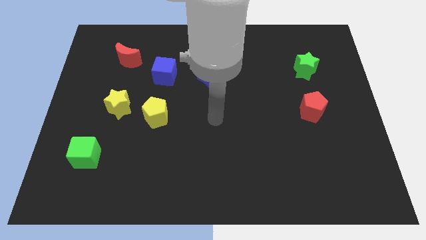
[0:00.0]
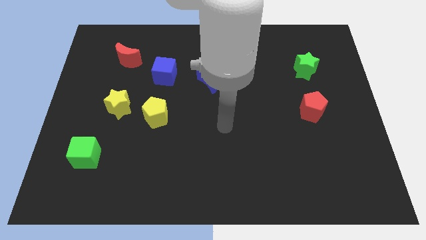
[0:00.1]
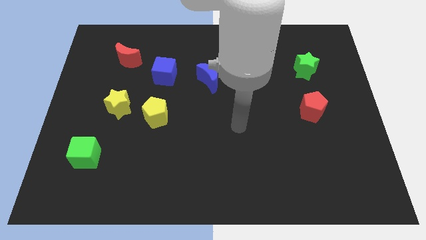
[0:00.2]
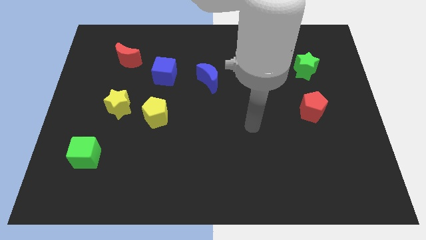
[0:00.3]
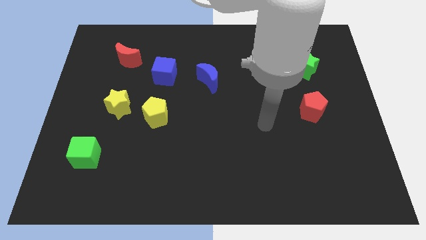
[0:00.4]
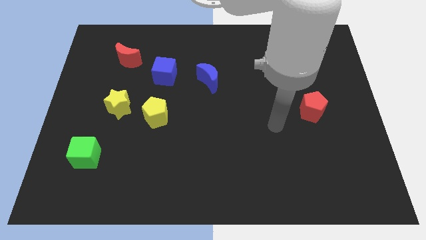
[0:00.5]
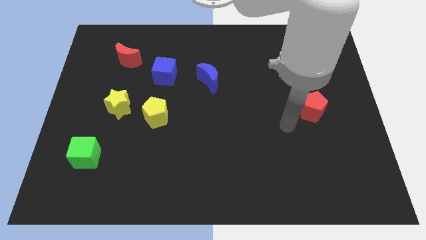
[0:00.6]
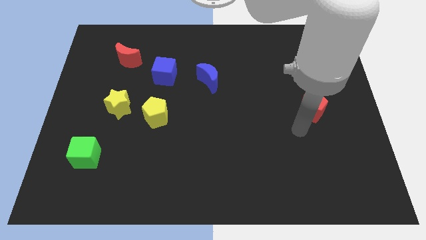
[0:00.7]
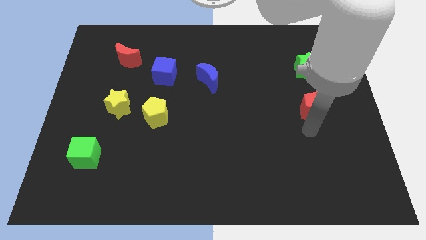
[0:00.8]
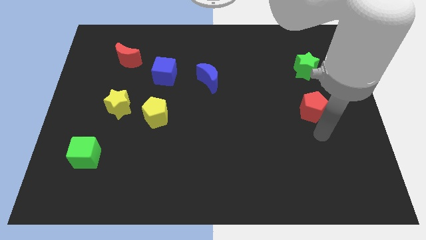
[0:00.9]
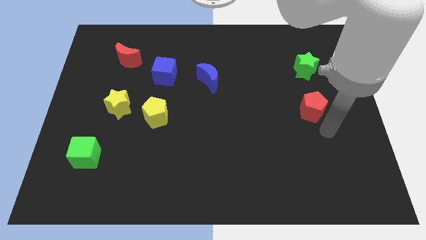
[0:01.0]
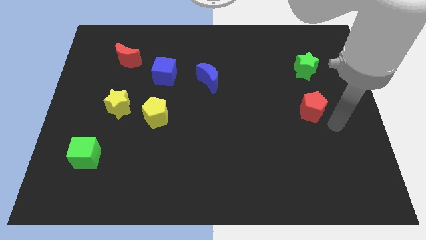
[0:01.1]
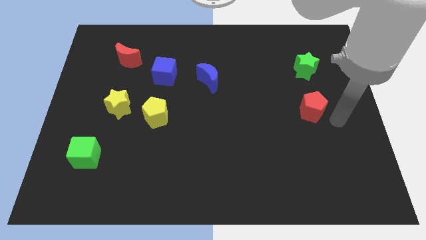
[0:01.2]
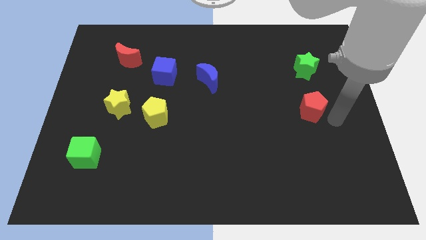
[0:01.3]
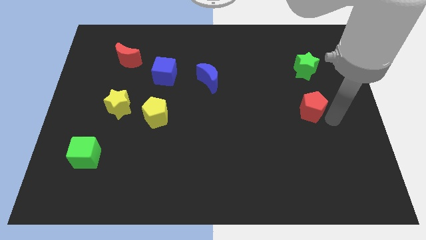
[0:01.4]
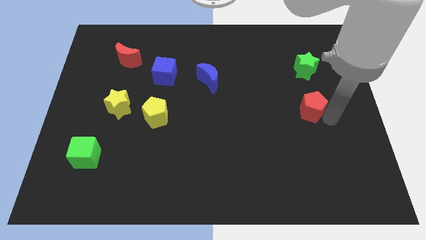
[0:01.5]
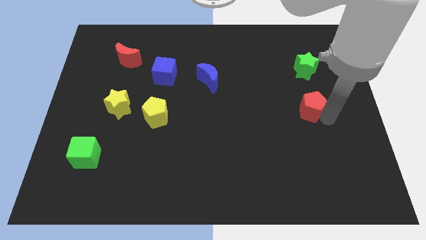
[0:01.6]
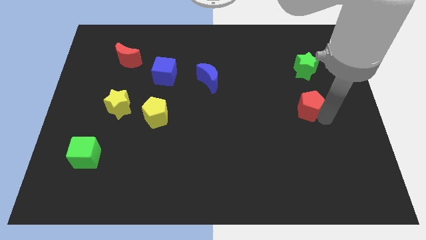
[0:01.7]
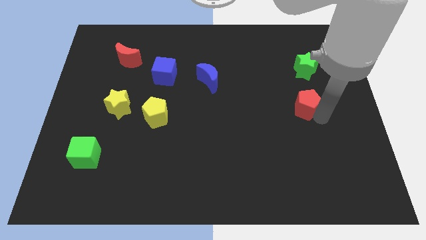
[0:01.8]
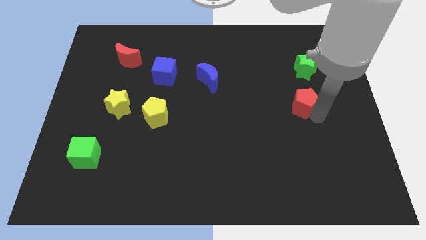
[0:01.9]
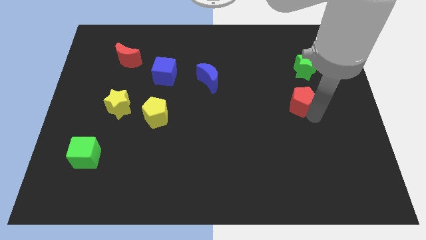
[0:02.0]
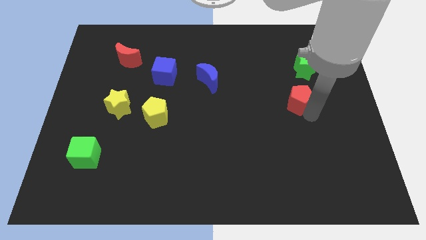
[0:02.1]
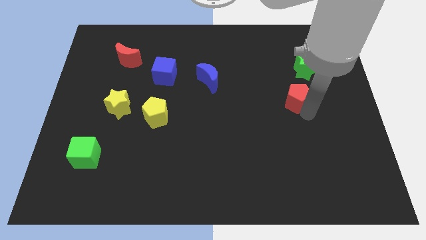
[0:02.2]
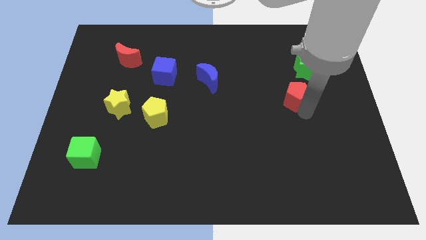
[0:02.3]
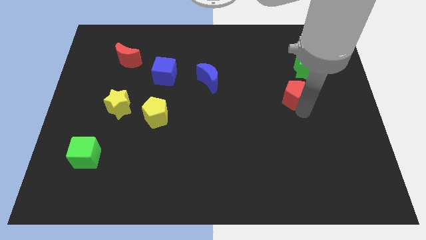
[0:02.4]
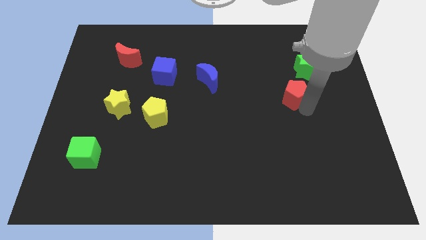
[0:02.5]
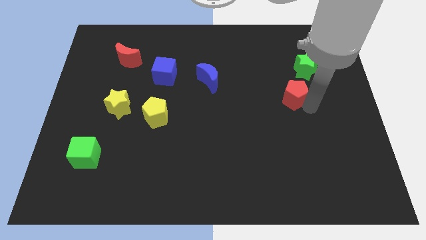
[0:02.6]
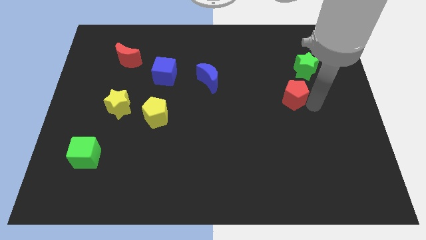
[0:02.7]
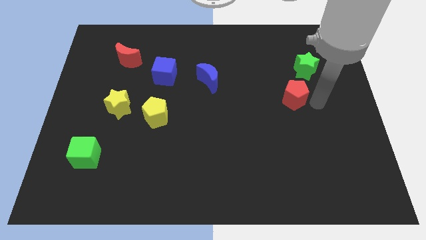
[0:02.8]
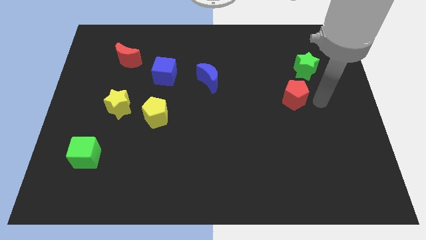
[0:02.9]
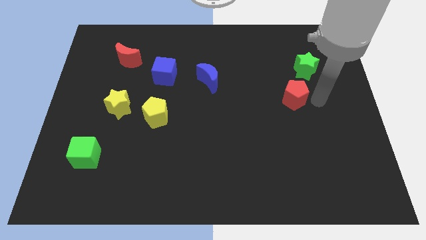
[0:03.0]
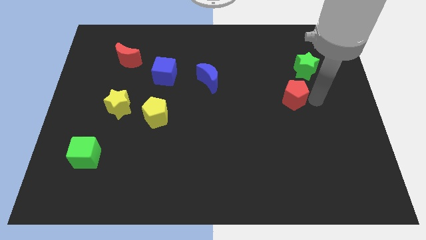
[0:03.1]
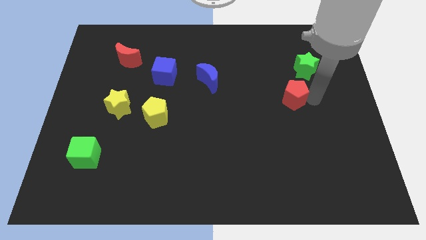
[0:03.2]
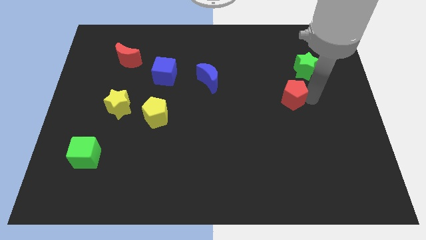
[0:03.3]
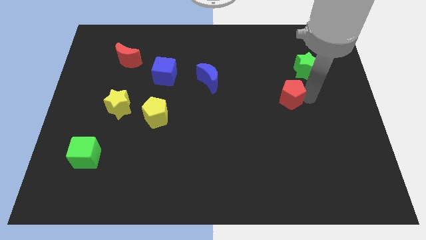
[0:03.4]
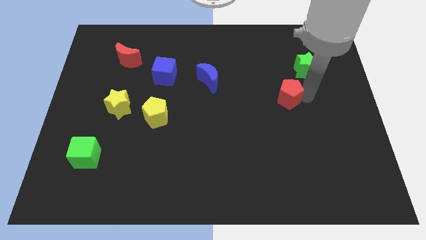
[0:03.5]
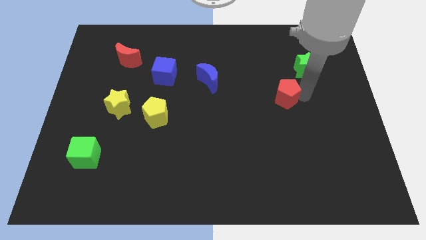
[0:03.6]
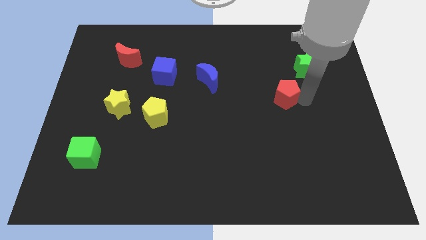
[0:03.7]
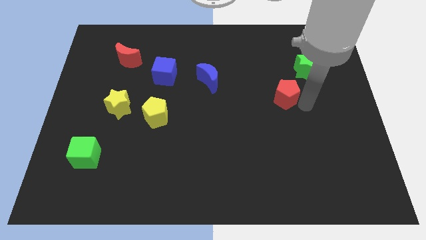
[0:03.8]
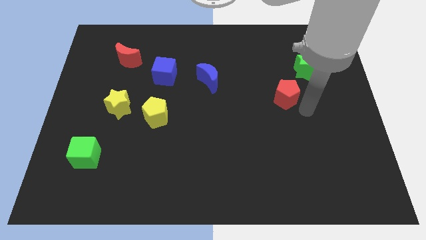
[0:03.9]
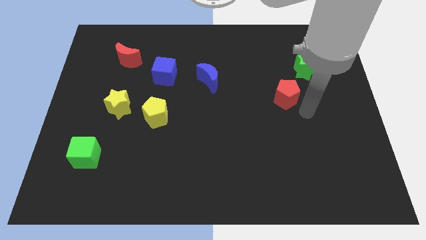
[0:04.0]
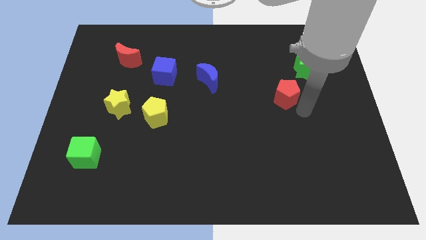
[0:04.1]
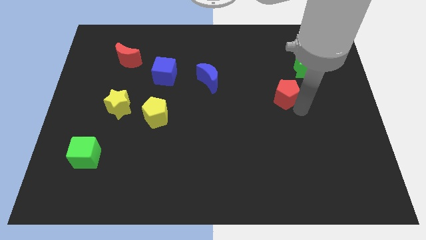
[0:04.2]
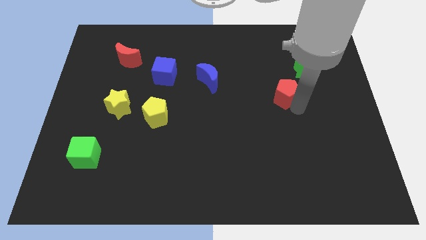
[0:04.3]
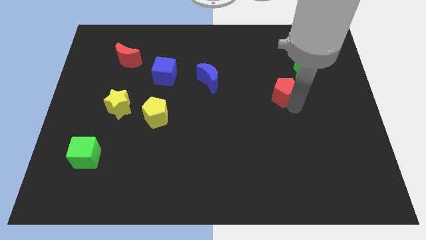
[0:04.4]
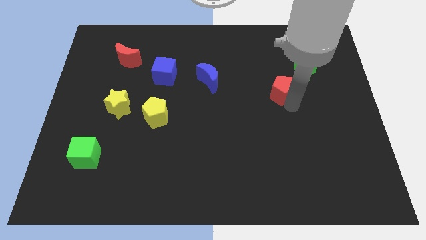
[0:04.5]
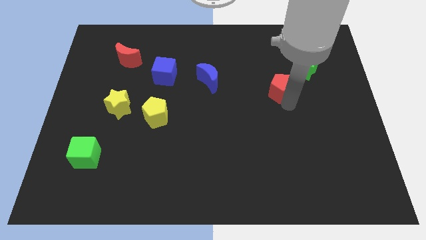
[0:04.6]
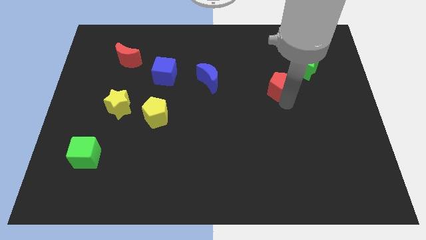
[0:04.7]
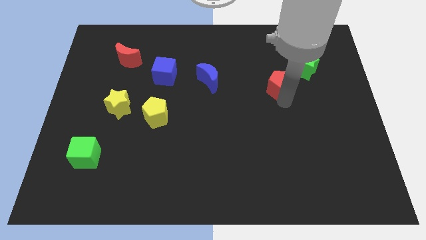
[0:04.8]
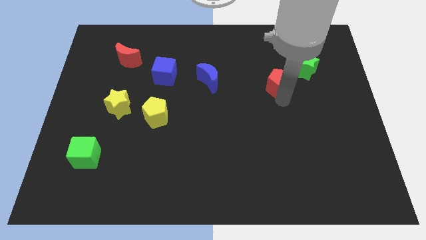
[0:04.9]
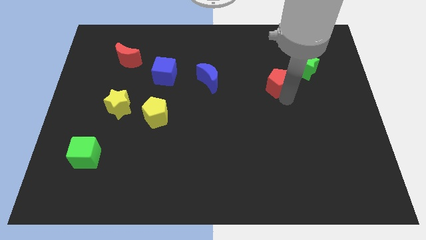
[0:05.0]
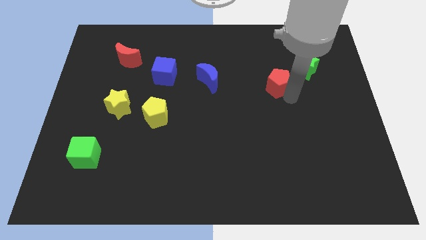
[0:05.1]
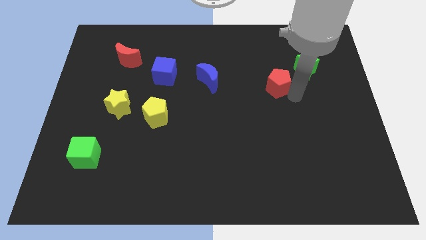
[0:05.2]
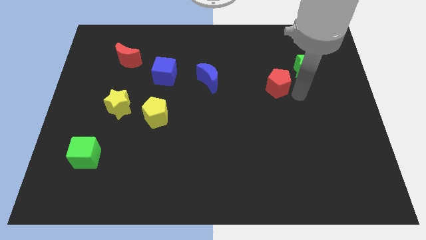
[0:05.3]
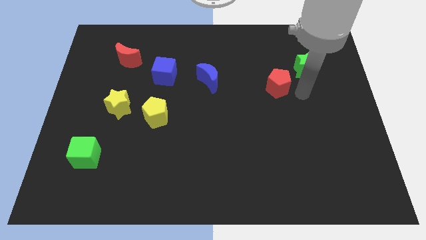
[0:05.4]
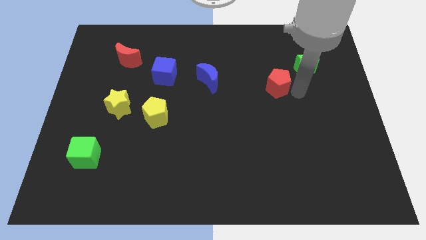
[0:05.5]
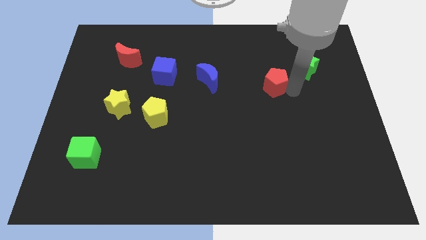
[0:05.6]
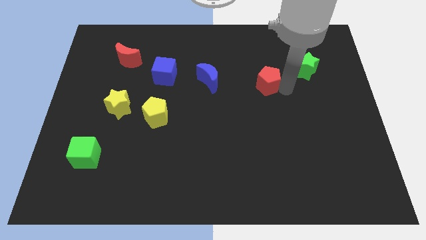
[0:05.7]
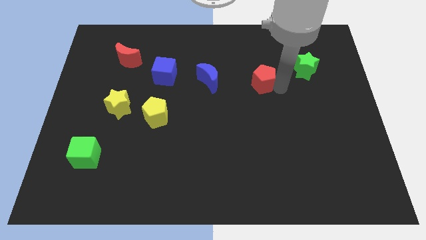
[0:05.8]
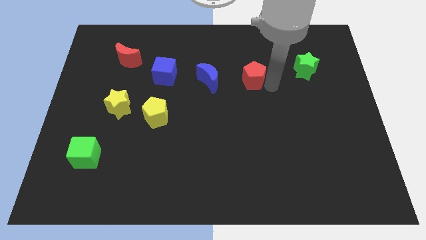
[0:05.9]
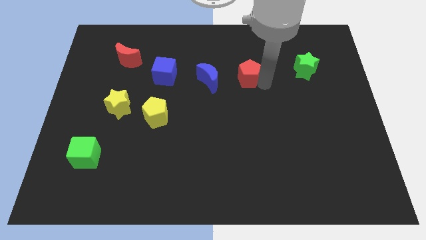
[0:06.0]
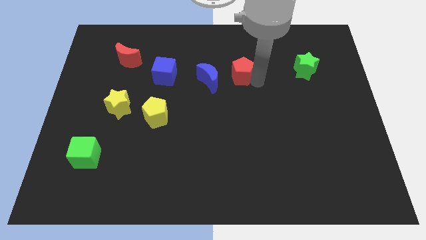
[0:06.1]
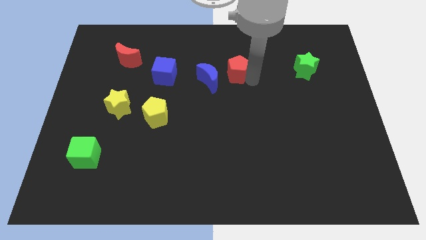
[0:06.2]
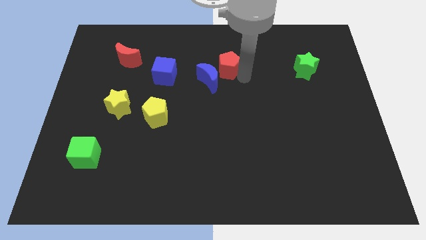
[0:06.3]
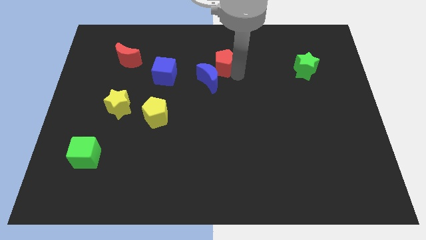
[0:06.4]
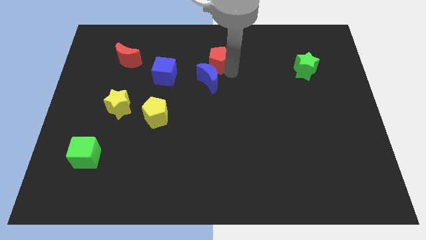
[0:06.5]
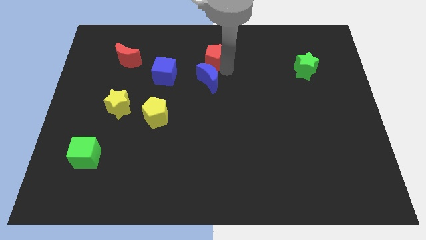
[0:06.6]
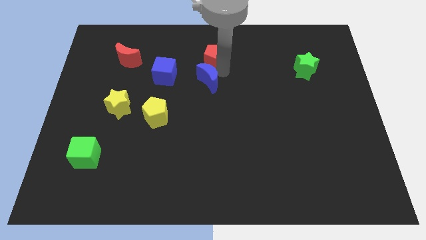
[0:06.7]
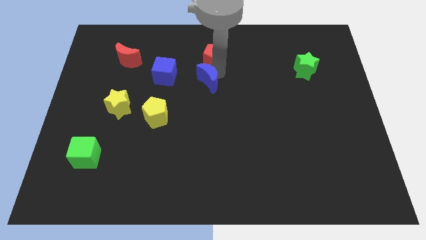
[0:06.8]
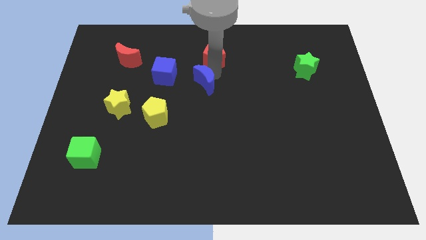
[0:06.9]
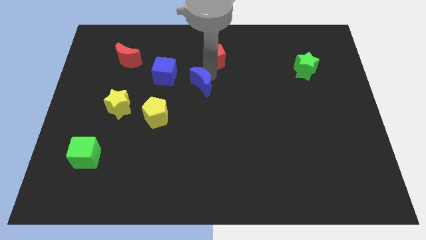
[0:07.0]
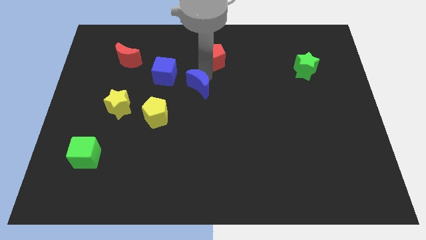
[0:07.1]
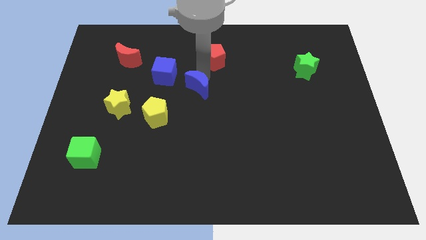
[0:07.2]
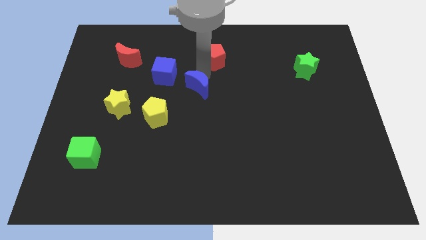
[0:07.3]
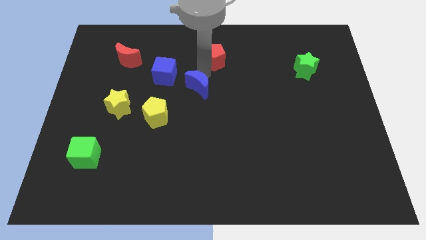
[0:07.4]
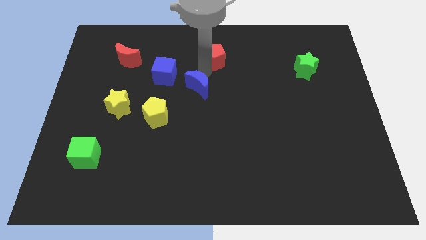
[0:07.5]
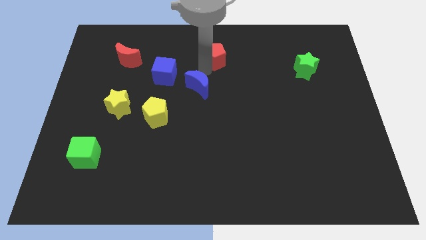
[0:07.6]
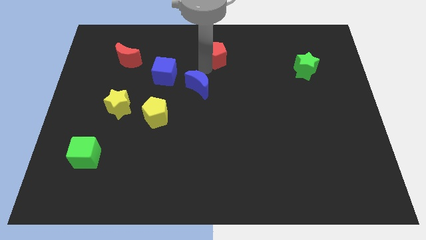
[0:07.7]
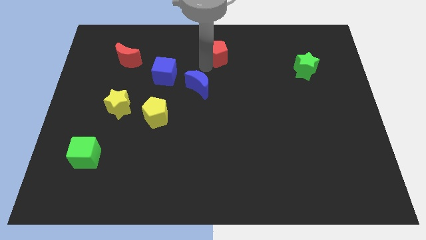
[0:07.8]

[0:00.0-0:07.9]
put the red pentagon to the top
